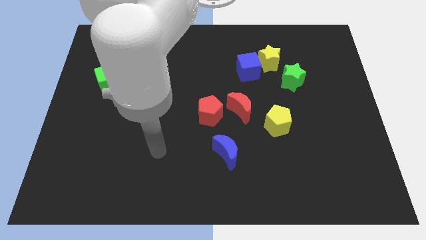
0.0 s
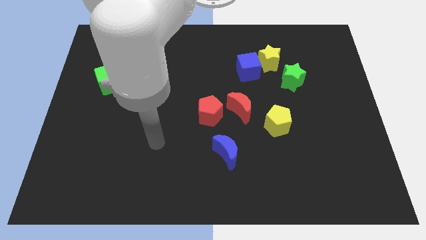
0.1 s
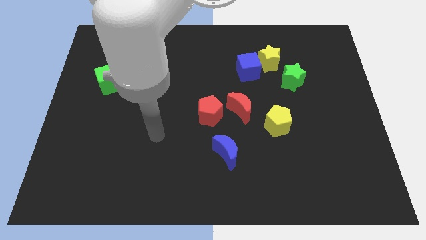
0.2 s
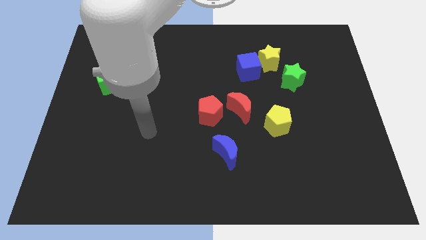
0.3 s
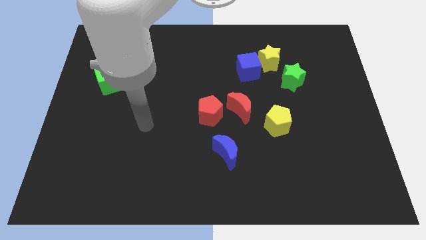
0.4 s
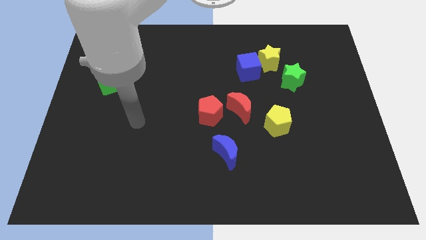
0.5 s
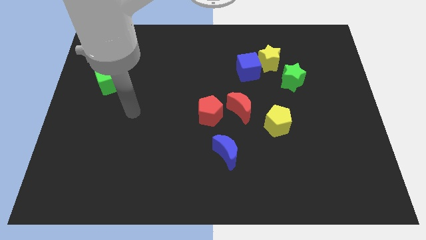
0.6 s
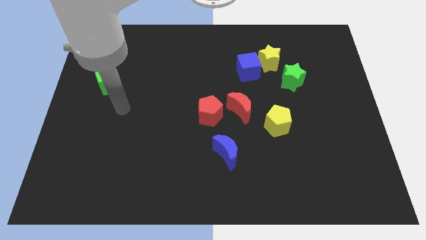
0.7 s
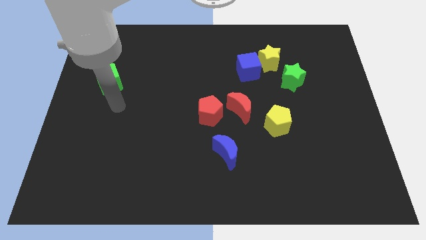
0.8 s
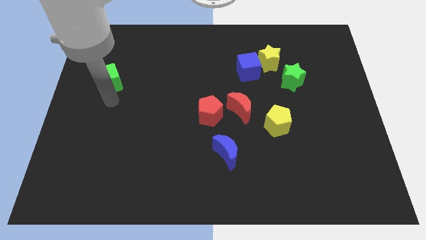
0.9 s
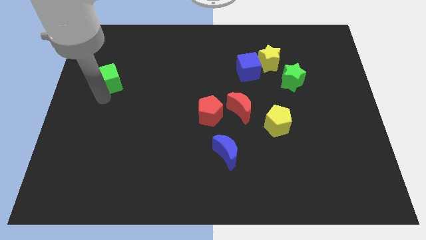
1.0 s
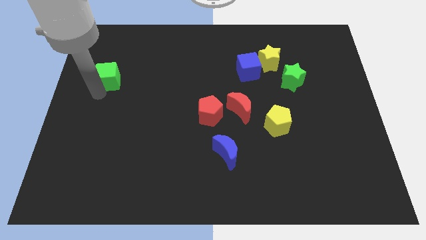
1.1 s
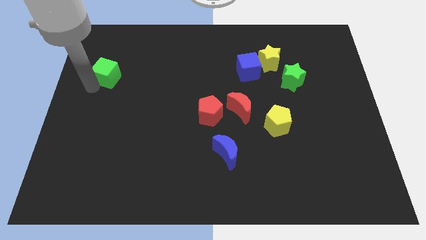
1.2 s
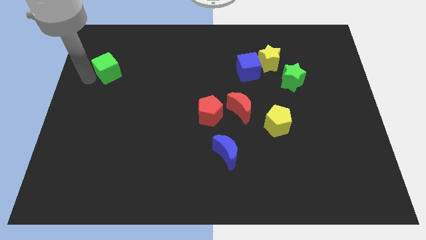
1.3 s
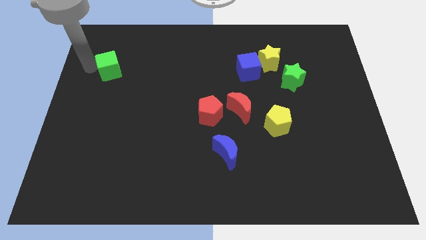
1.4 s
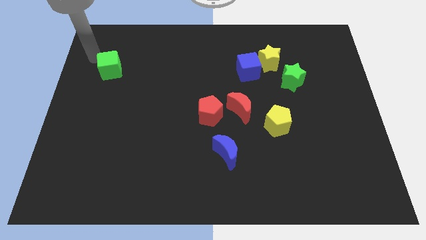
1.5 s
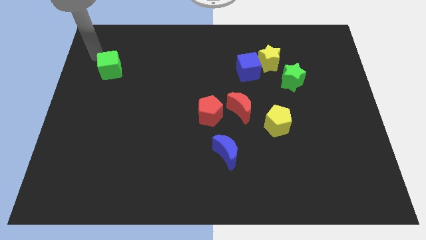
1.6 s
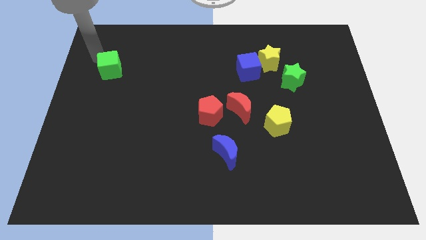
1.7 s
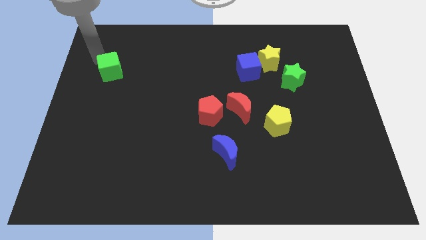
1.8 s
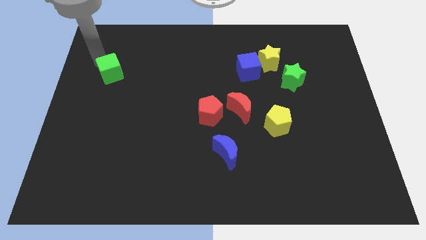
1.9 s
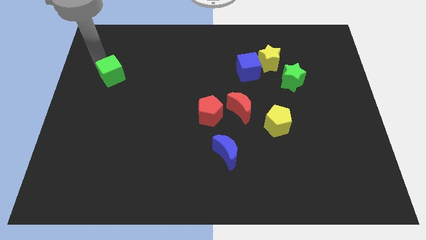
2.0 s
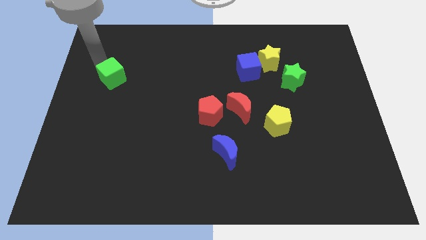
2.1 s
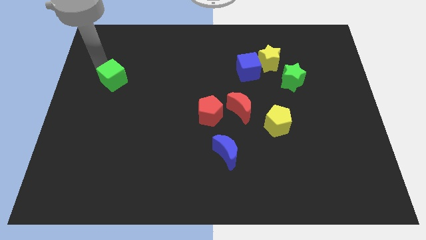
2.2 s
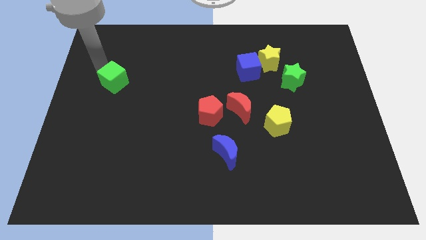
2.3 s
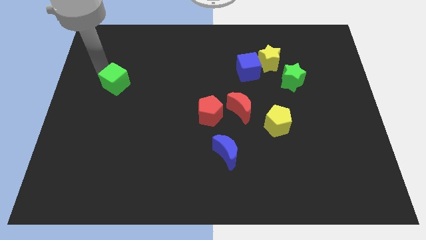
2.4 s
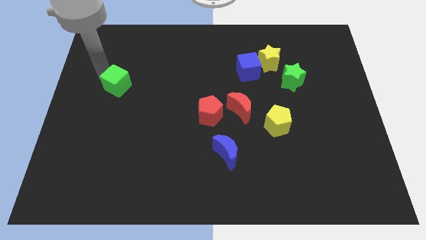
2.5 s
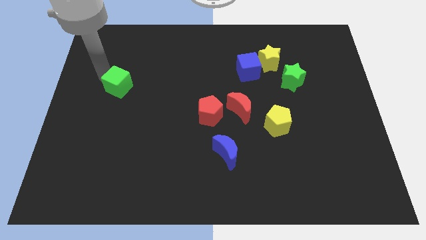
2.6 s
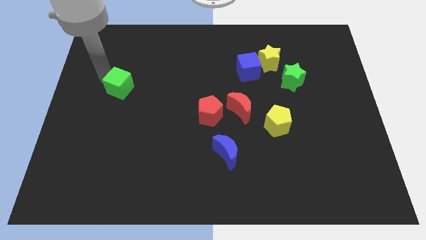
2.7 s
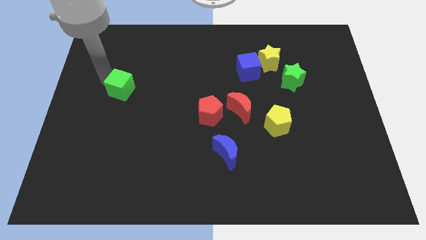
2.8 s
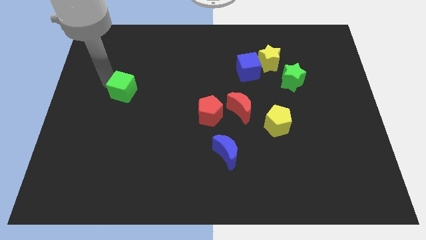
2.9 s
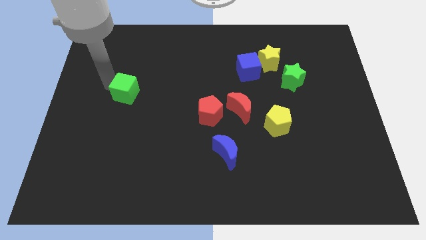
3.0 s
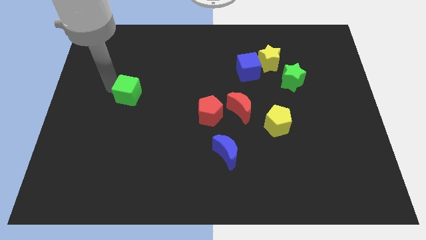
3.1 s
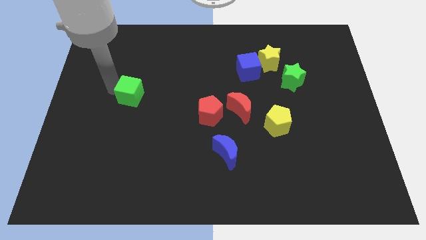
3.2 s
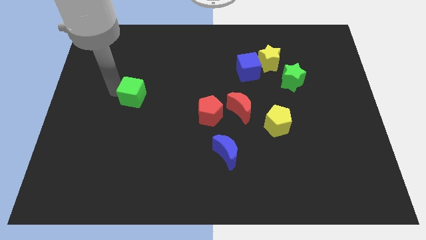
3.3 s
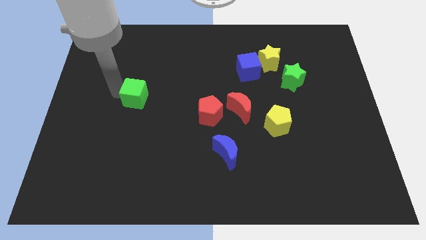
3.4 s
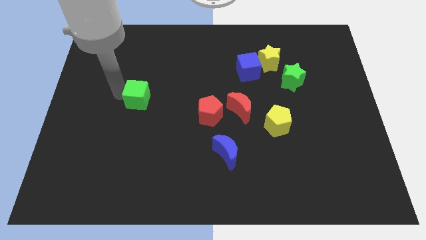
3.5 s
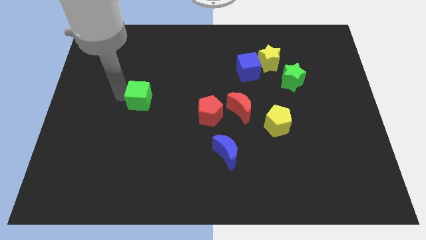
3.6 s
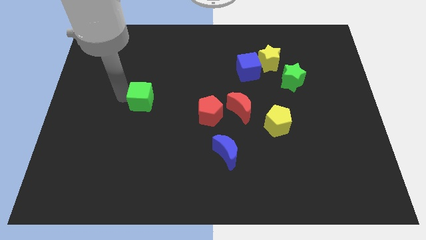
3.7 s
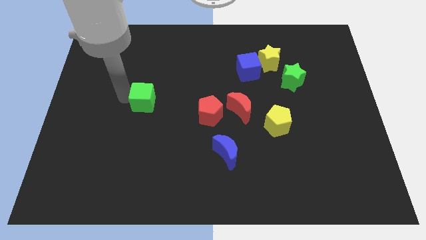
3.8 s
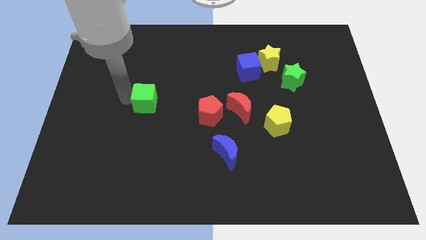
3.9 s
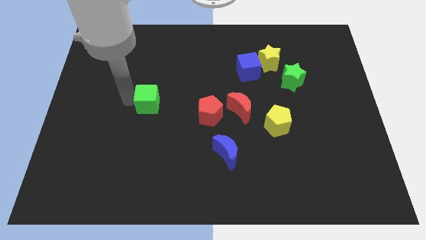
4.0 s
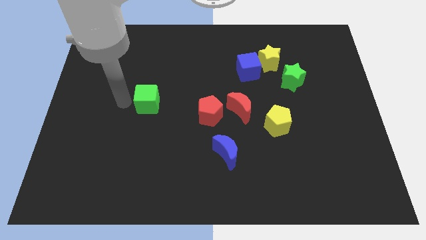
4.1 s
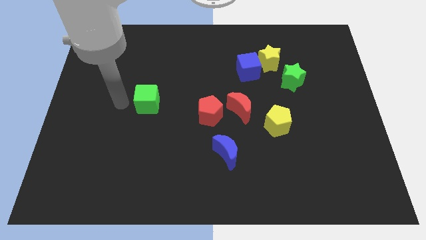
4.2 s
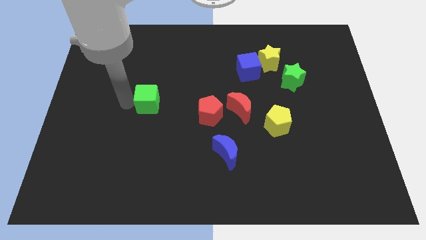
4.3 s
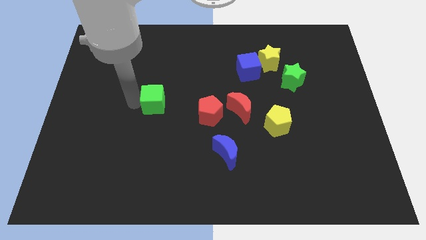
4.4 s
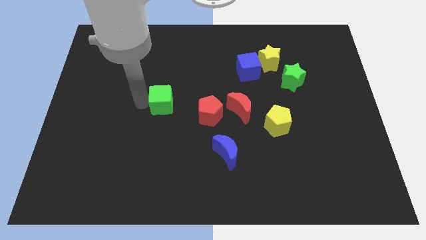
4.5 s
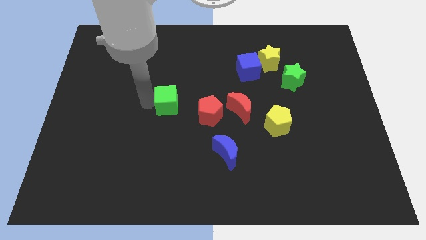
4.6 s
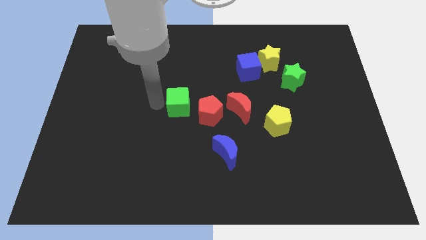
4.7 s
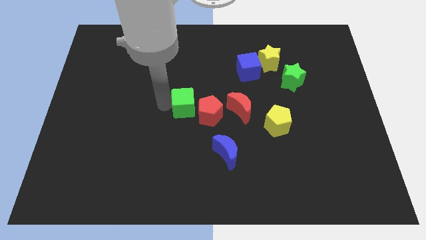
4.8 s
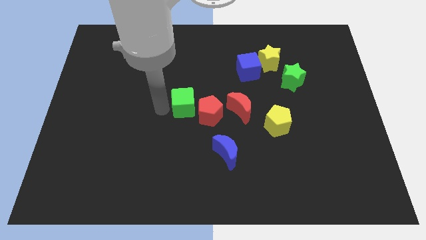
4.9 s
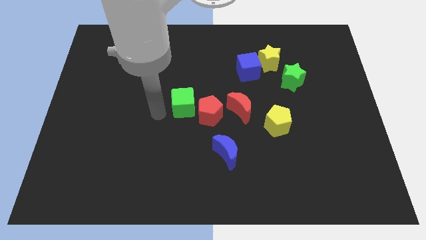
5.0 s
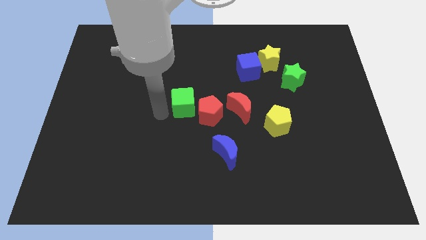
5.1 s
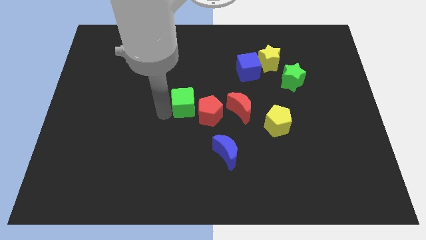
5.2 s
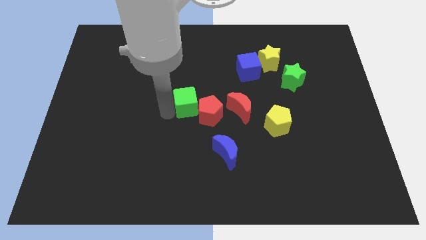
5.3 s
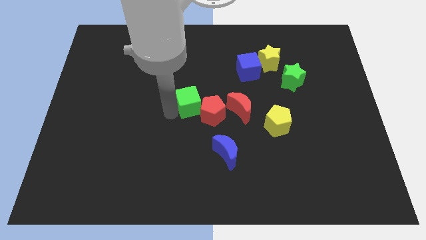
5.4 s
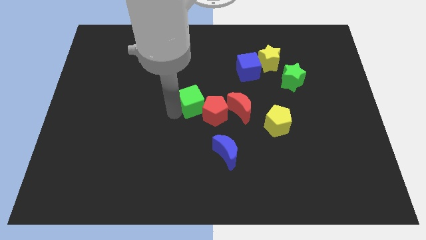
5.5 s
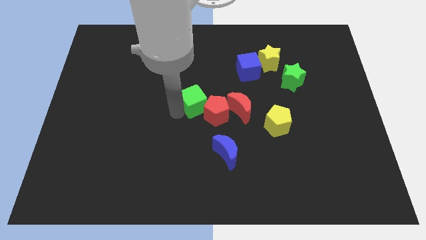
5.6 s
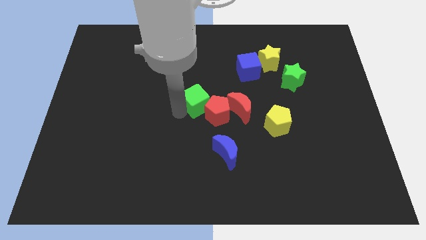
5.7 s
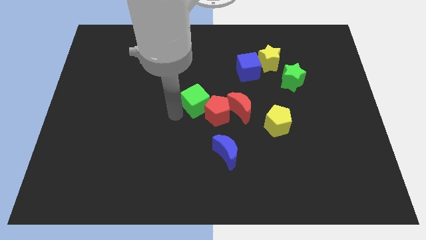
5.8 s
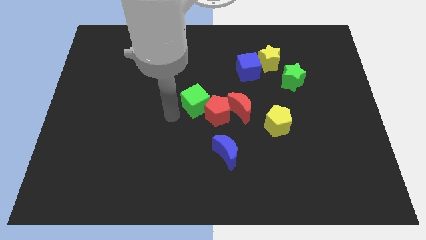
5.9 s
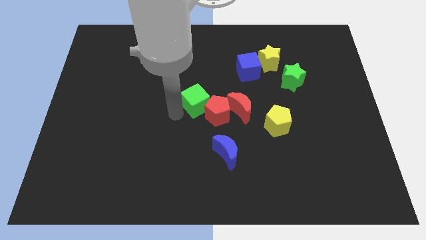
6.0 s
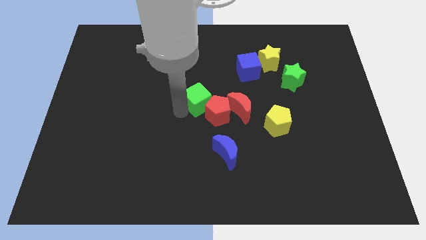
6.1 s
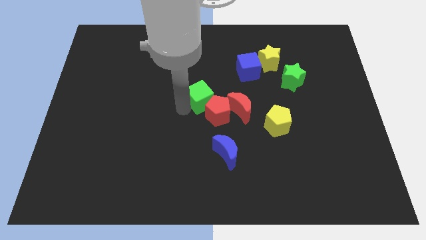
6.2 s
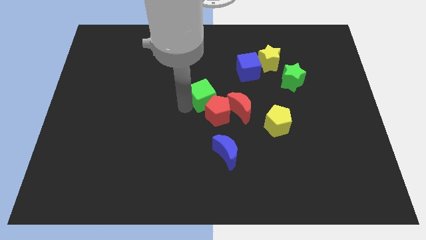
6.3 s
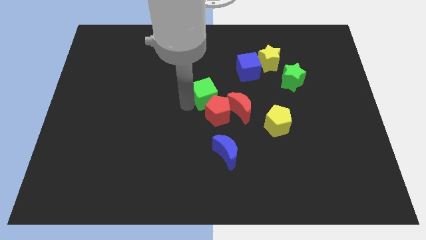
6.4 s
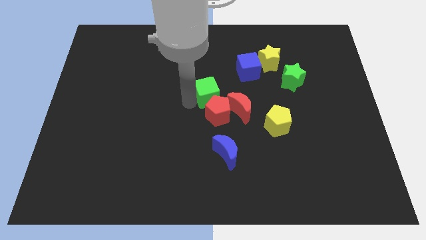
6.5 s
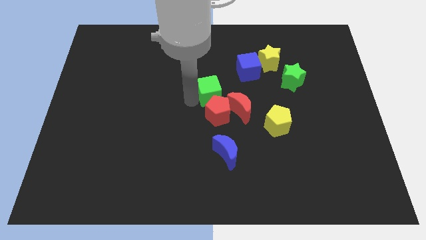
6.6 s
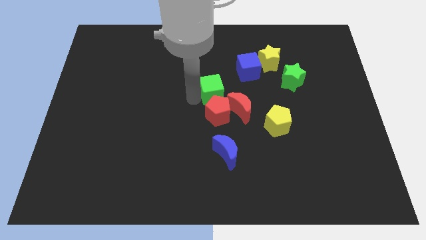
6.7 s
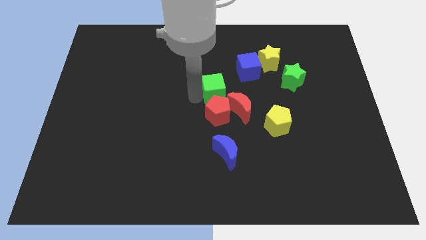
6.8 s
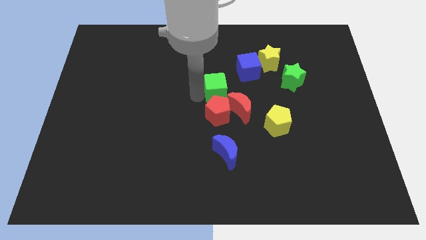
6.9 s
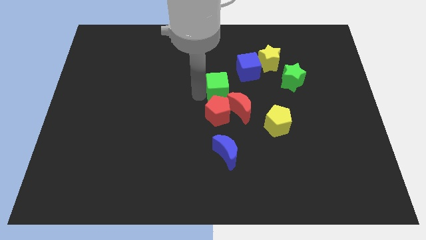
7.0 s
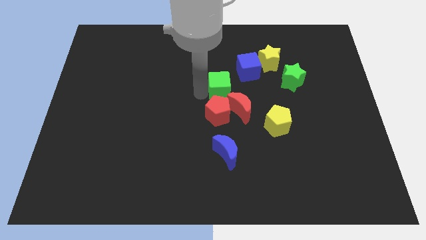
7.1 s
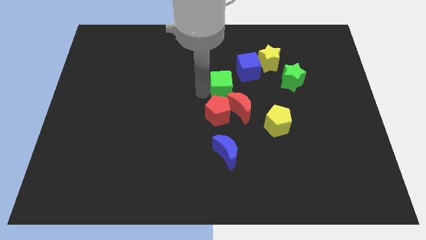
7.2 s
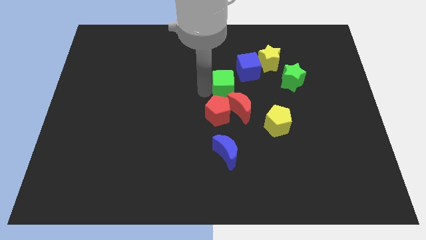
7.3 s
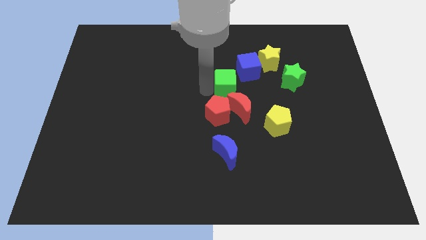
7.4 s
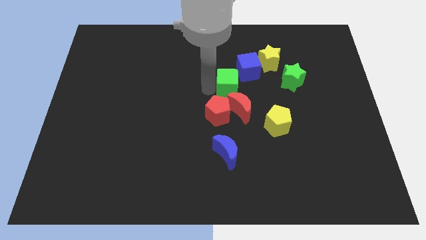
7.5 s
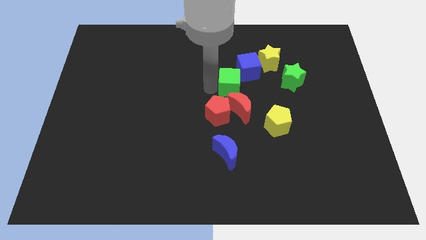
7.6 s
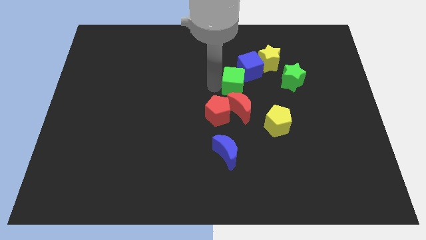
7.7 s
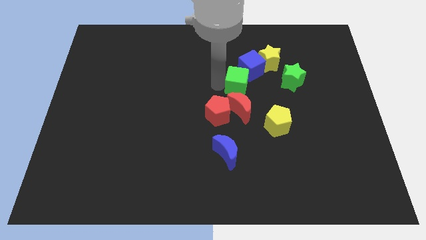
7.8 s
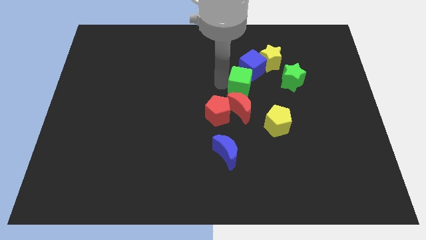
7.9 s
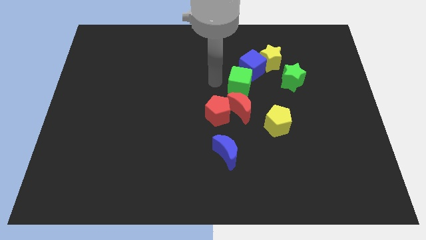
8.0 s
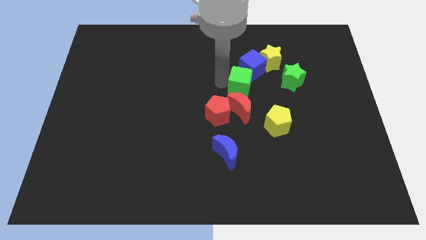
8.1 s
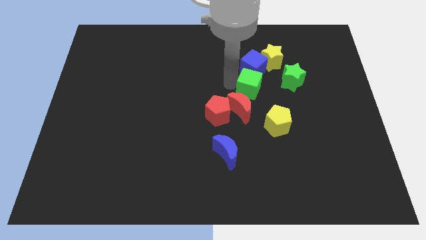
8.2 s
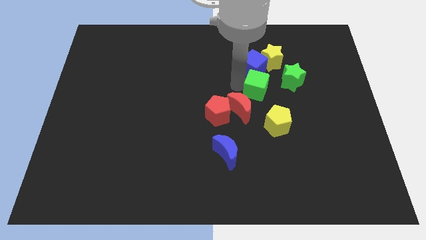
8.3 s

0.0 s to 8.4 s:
move the green cube above the yellow pentagon
